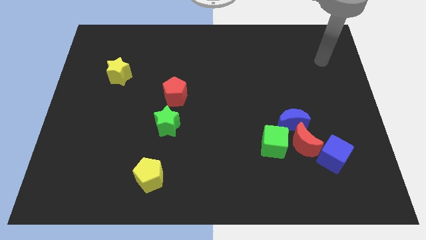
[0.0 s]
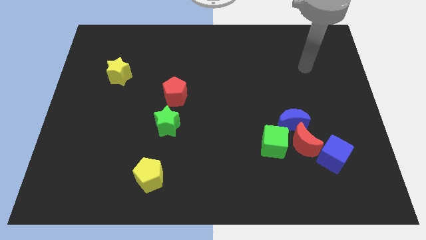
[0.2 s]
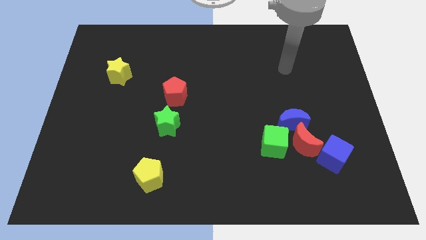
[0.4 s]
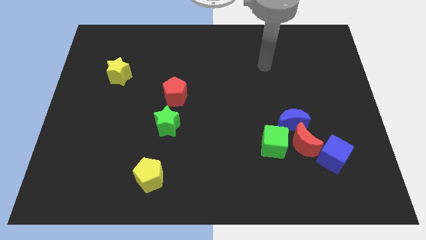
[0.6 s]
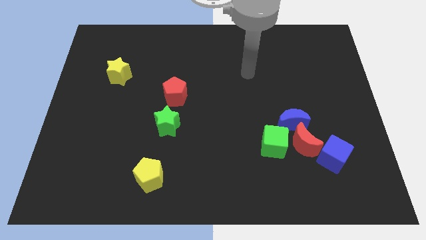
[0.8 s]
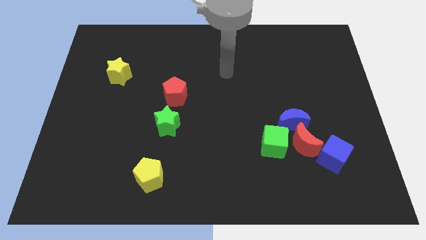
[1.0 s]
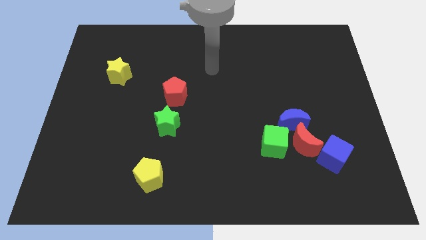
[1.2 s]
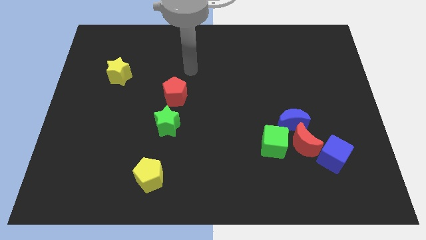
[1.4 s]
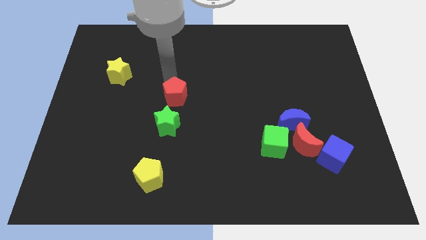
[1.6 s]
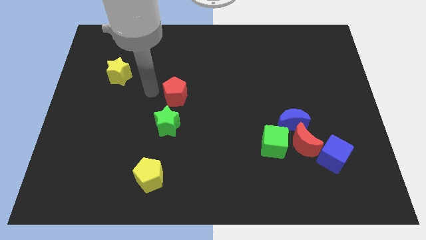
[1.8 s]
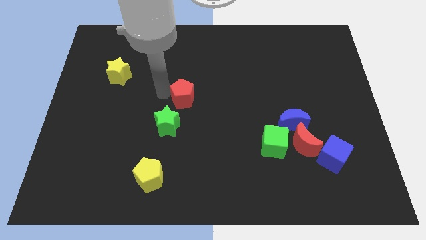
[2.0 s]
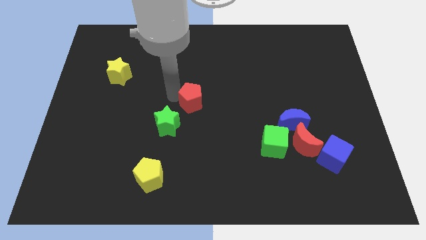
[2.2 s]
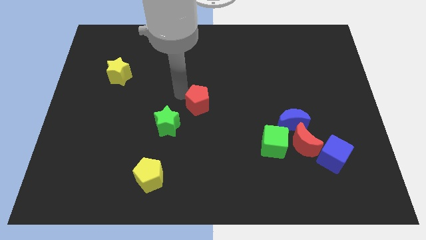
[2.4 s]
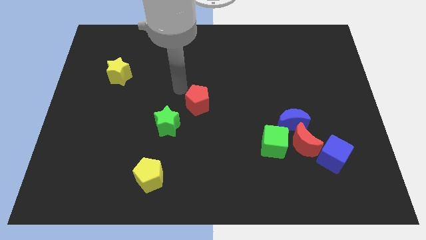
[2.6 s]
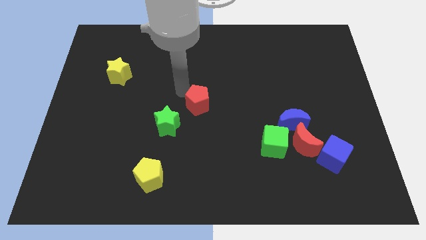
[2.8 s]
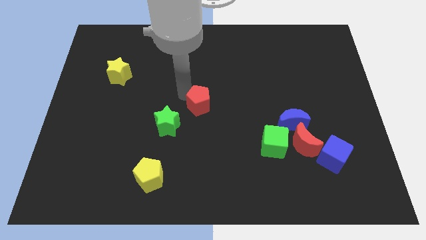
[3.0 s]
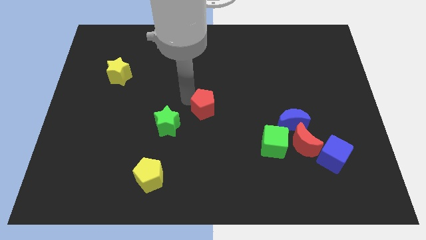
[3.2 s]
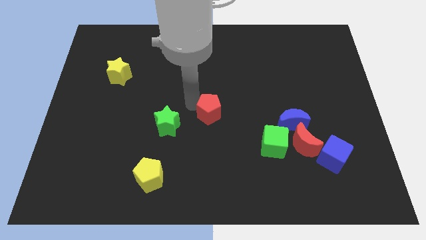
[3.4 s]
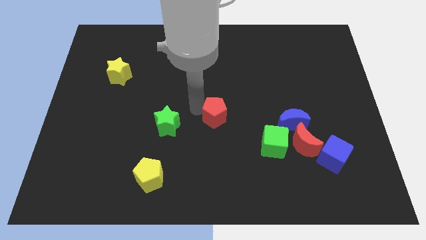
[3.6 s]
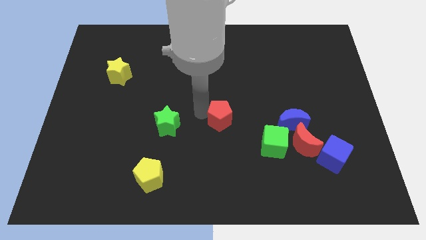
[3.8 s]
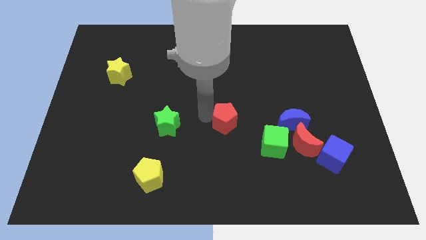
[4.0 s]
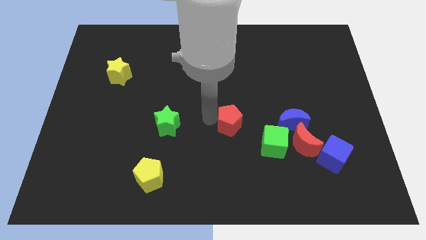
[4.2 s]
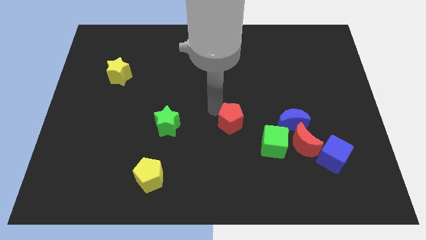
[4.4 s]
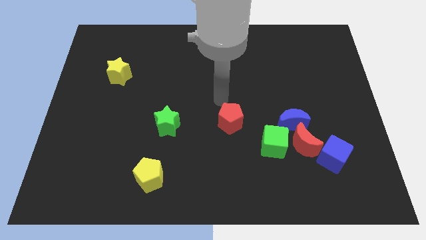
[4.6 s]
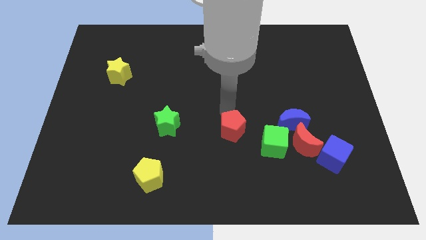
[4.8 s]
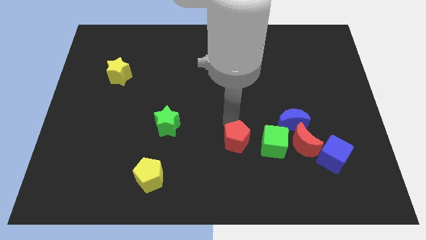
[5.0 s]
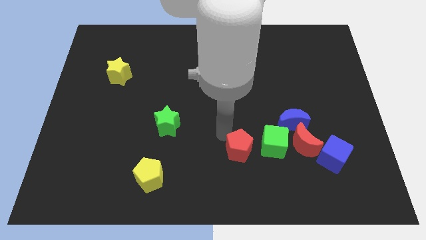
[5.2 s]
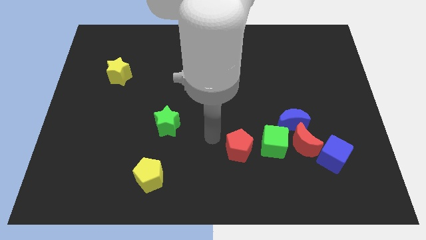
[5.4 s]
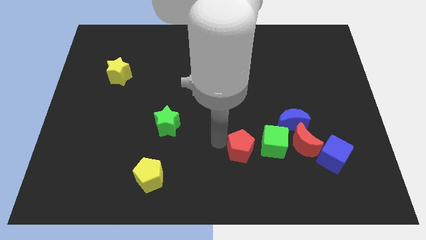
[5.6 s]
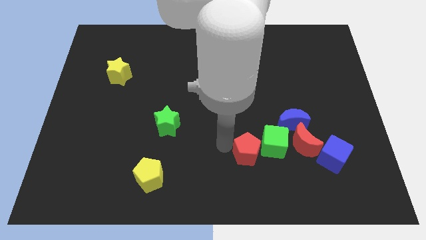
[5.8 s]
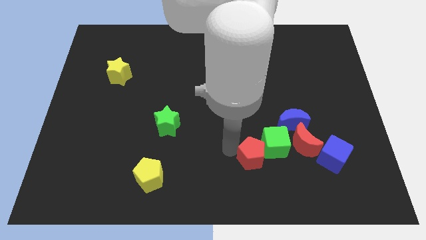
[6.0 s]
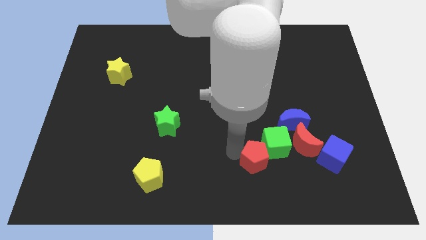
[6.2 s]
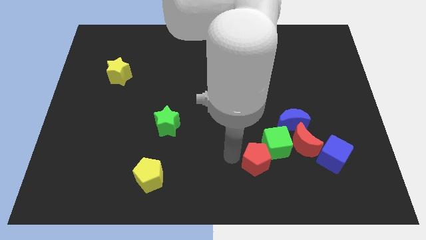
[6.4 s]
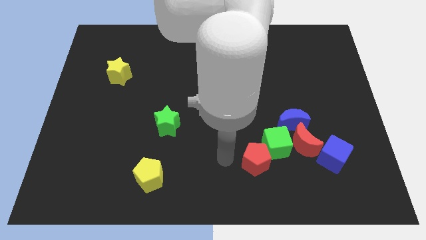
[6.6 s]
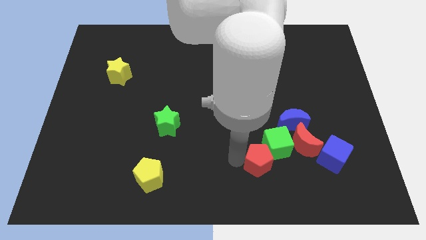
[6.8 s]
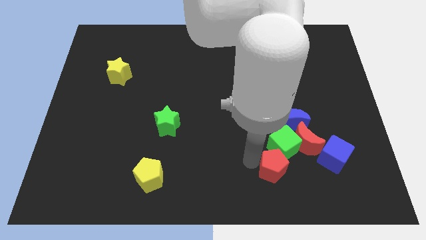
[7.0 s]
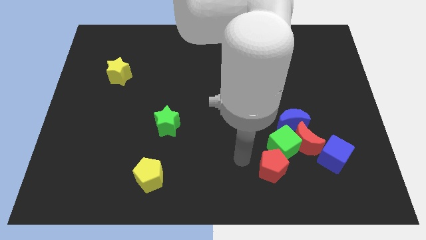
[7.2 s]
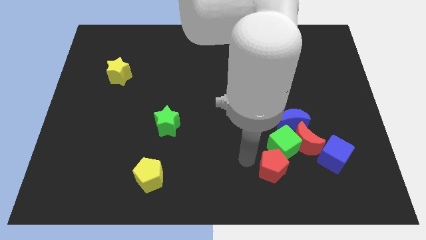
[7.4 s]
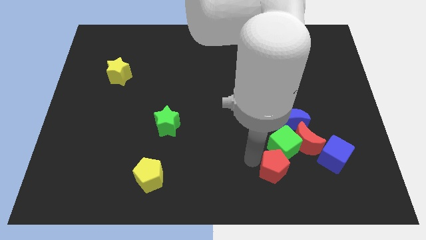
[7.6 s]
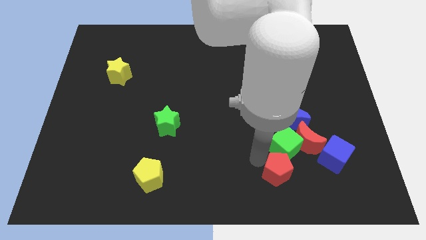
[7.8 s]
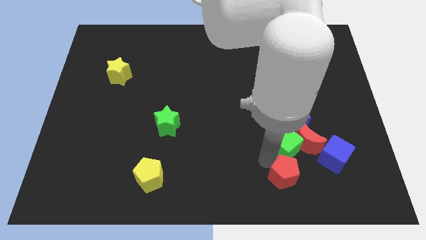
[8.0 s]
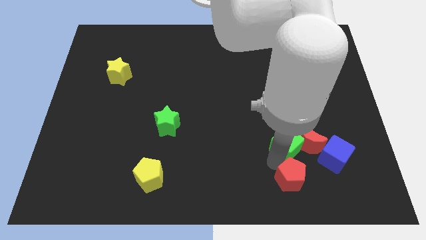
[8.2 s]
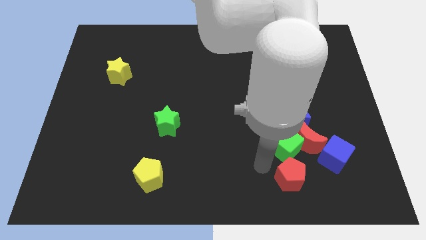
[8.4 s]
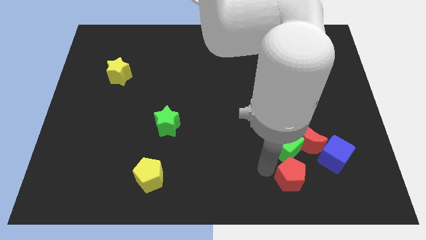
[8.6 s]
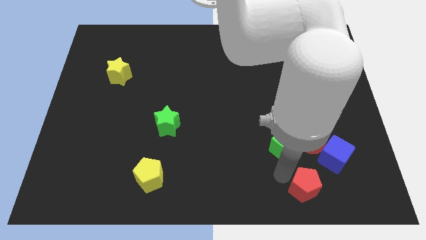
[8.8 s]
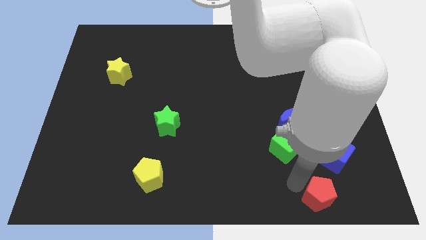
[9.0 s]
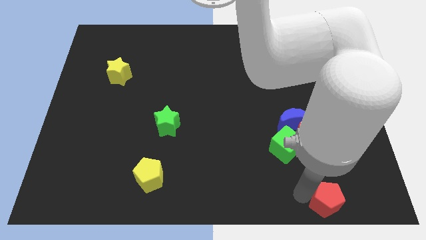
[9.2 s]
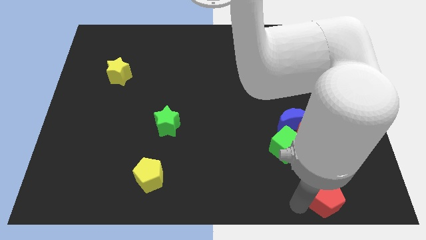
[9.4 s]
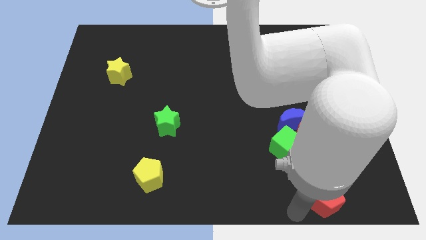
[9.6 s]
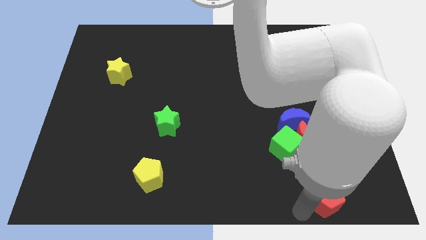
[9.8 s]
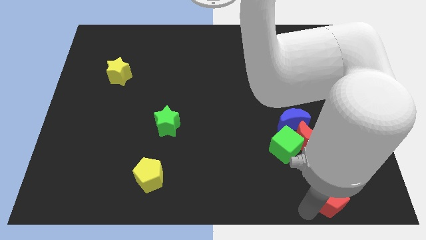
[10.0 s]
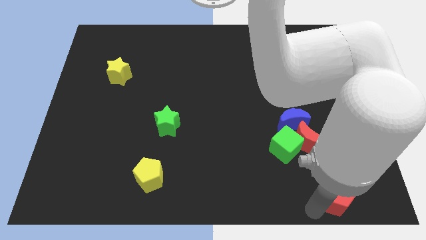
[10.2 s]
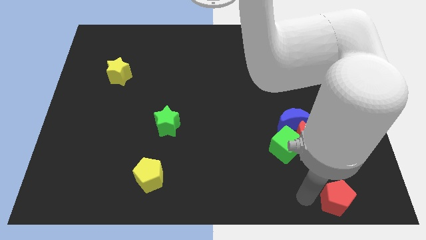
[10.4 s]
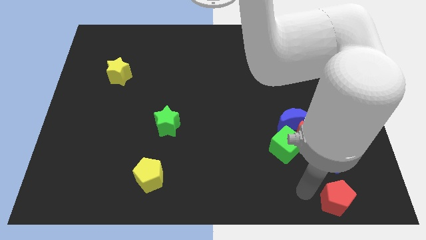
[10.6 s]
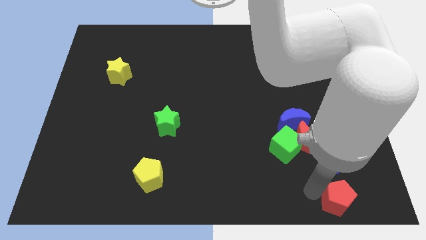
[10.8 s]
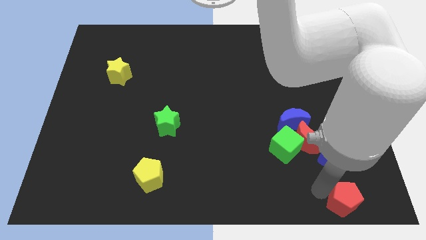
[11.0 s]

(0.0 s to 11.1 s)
slide the red pentagon to the bottom right corner

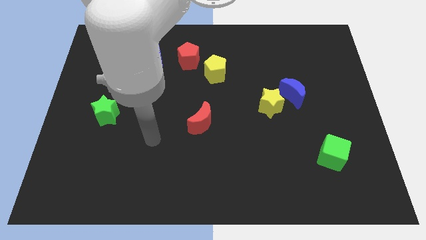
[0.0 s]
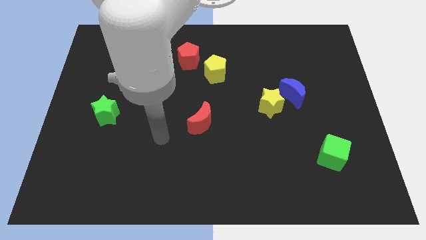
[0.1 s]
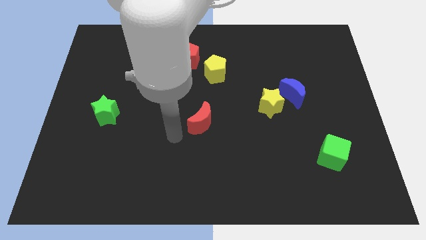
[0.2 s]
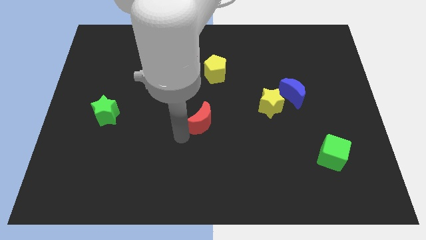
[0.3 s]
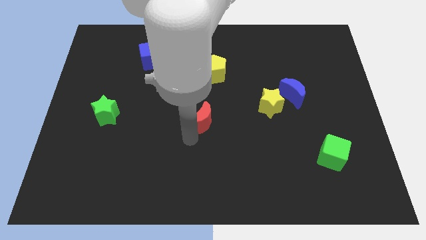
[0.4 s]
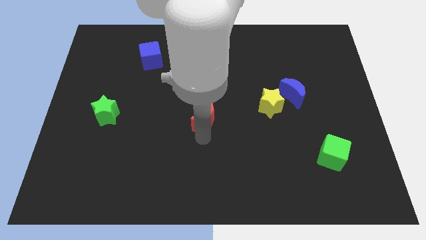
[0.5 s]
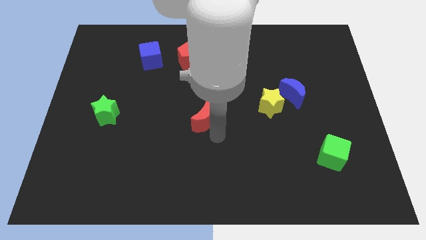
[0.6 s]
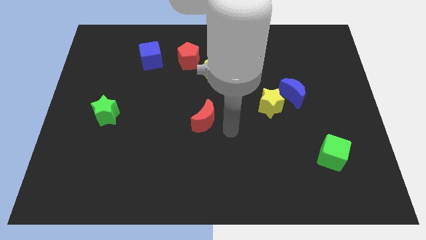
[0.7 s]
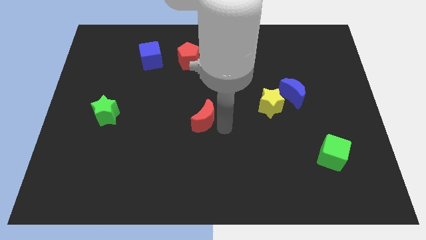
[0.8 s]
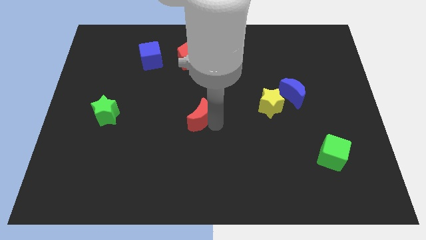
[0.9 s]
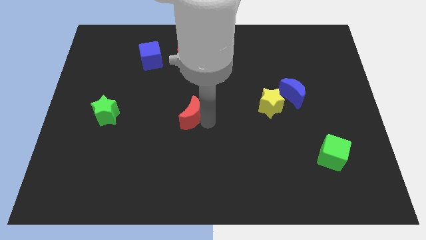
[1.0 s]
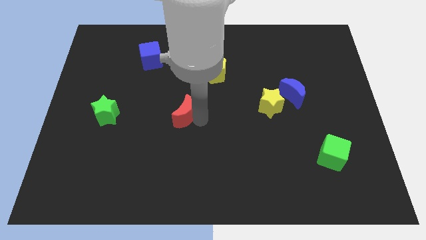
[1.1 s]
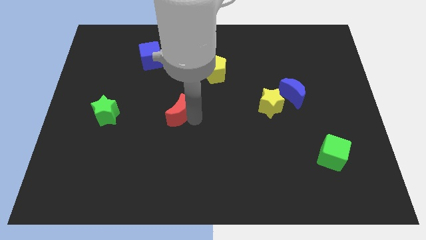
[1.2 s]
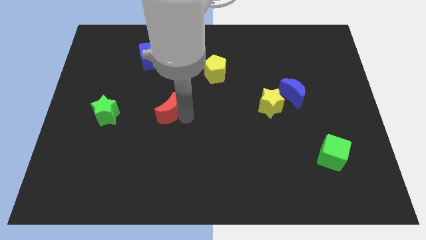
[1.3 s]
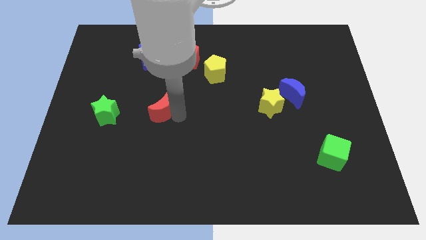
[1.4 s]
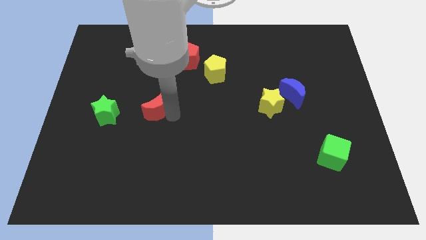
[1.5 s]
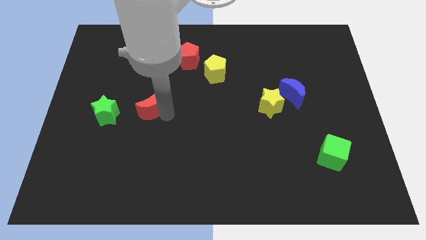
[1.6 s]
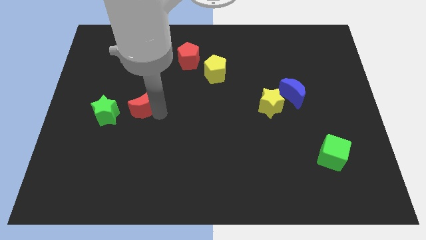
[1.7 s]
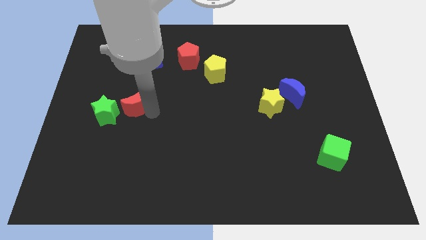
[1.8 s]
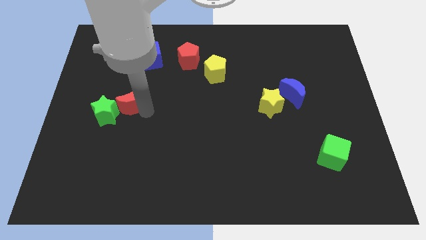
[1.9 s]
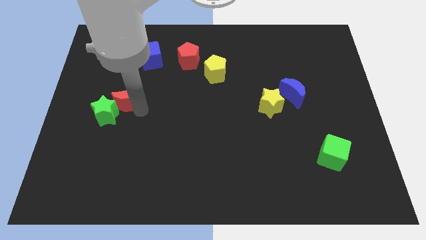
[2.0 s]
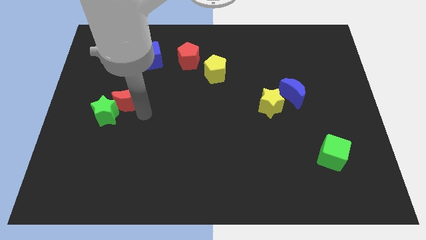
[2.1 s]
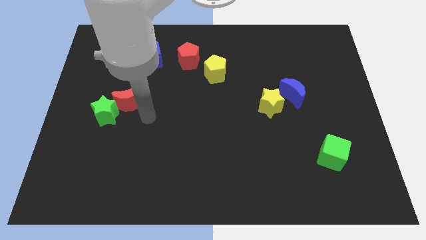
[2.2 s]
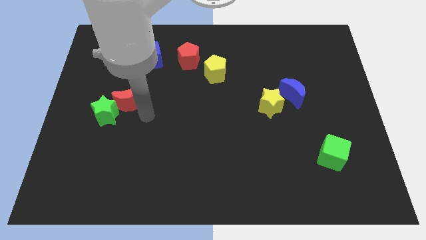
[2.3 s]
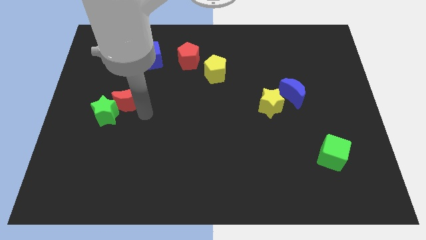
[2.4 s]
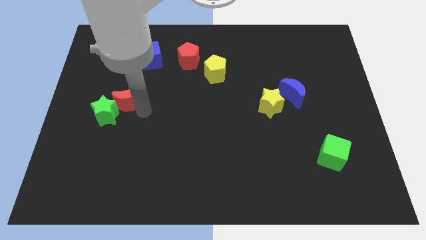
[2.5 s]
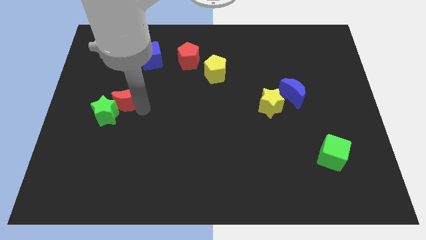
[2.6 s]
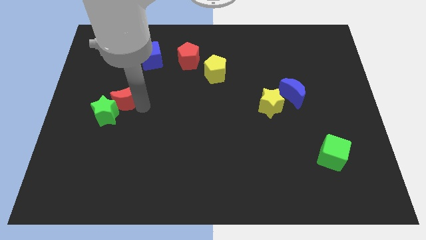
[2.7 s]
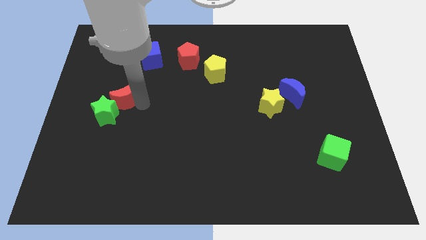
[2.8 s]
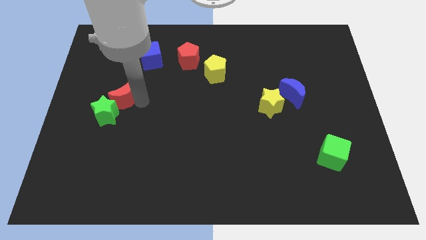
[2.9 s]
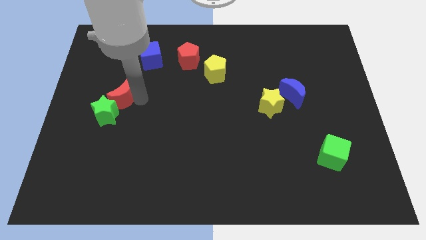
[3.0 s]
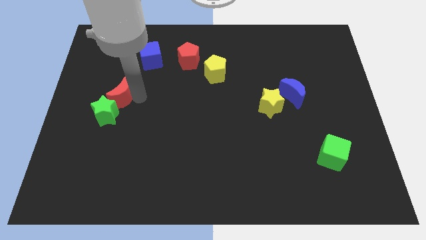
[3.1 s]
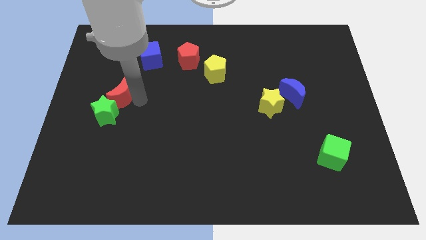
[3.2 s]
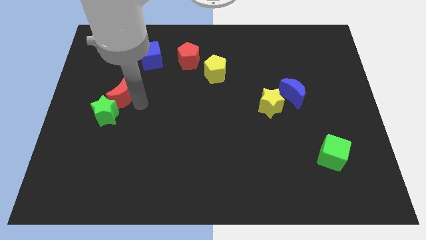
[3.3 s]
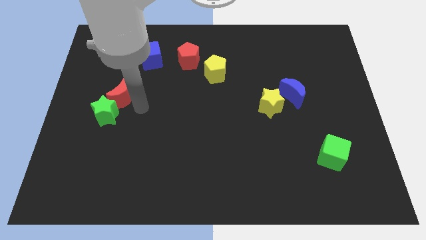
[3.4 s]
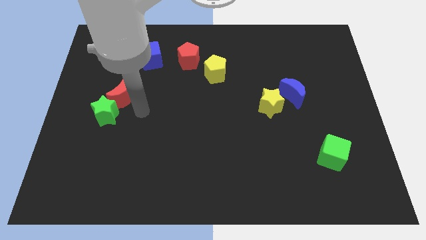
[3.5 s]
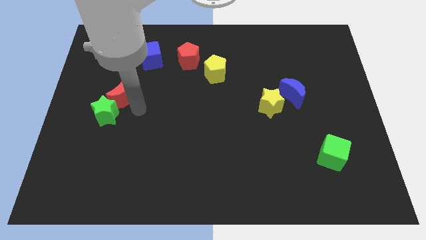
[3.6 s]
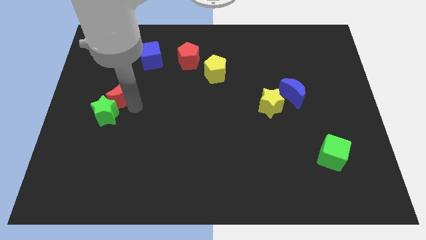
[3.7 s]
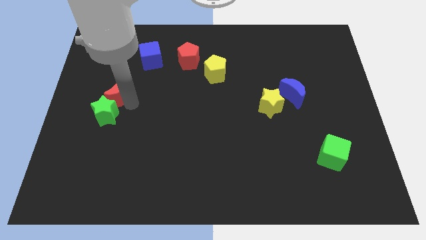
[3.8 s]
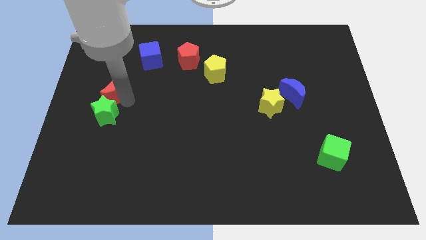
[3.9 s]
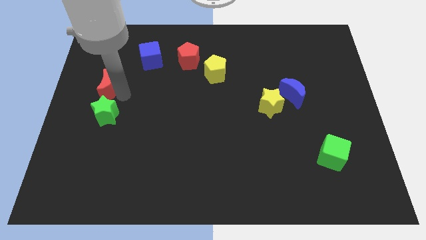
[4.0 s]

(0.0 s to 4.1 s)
put the red moon to the left side
